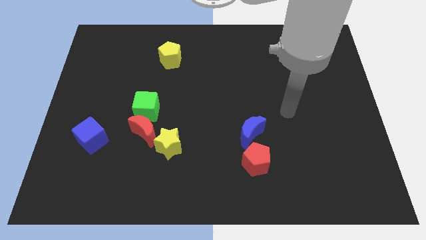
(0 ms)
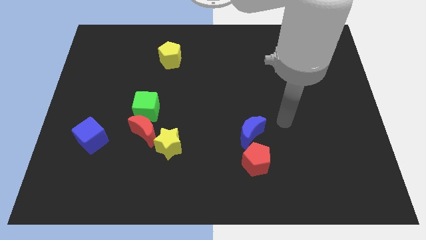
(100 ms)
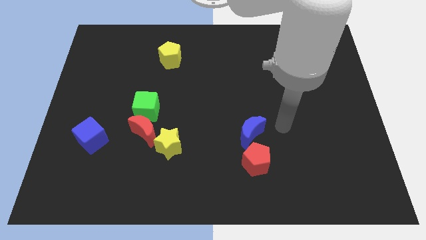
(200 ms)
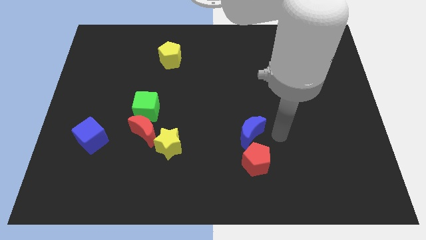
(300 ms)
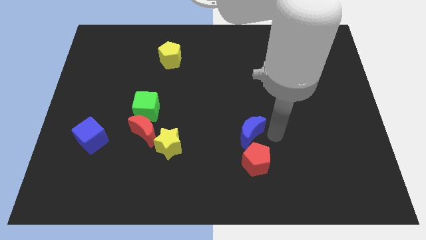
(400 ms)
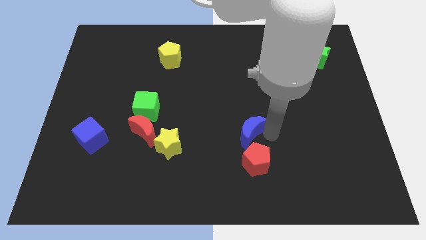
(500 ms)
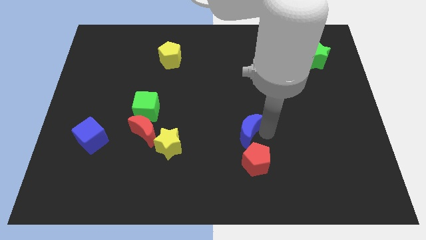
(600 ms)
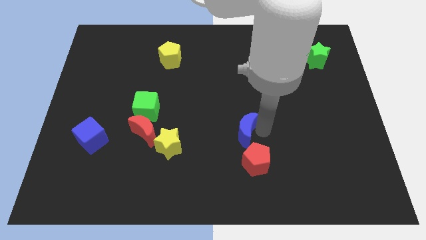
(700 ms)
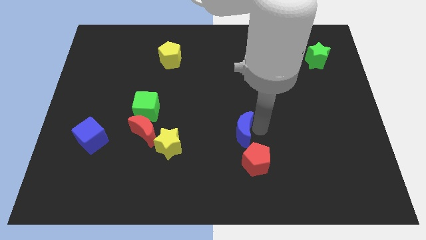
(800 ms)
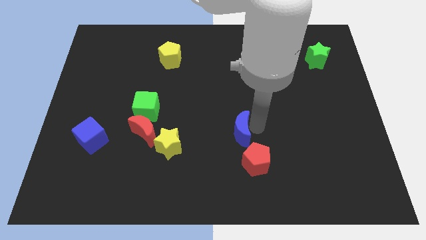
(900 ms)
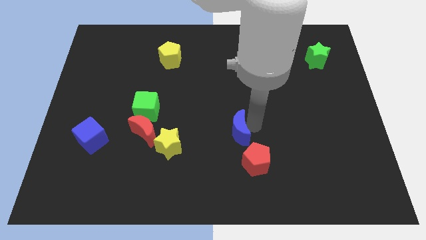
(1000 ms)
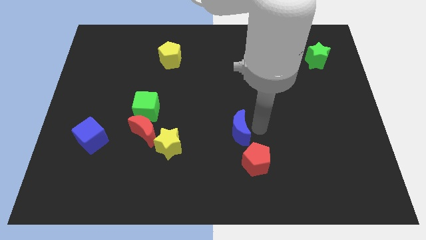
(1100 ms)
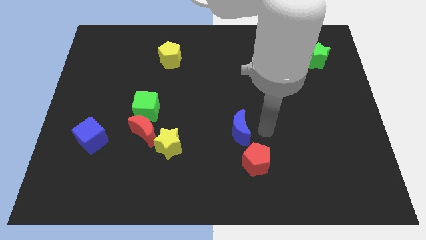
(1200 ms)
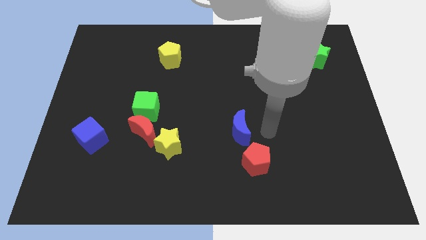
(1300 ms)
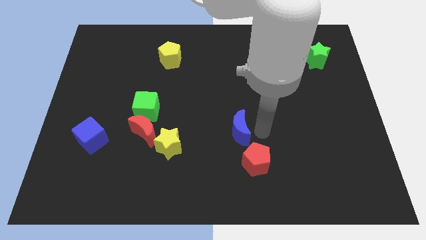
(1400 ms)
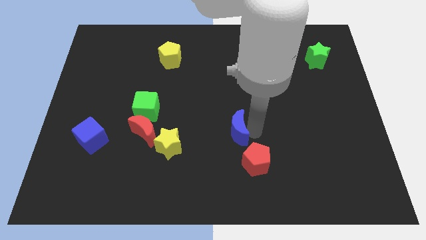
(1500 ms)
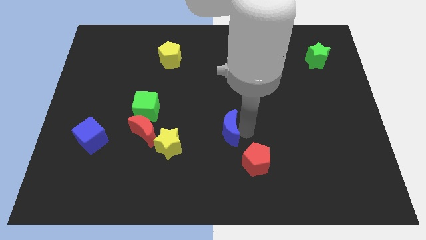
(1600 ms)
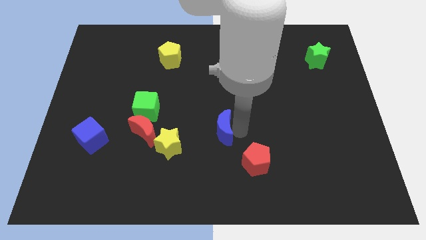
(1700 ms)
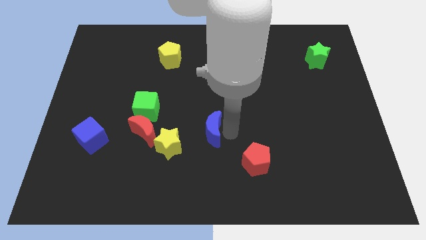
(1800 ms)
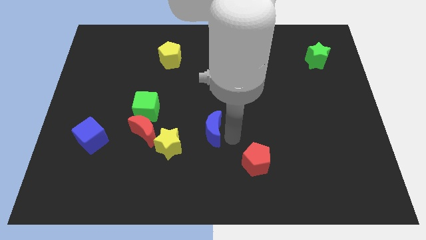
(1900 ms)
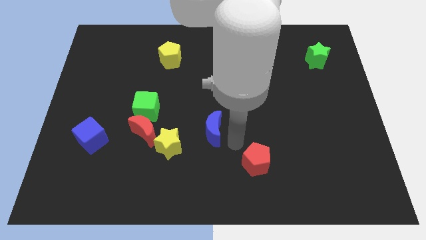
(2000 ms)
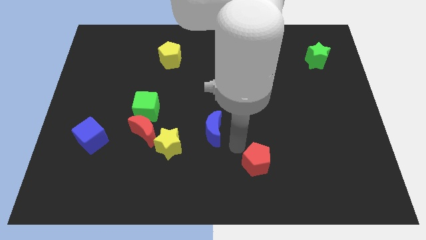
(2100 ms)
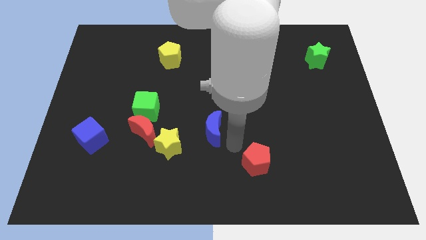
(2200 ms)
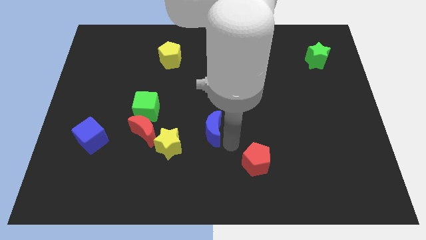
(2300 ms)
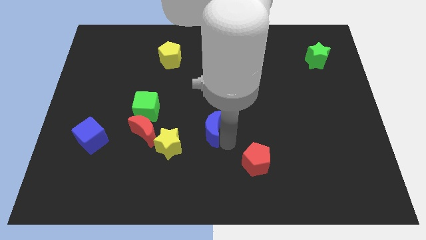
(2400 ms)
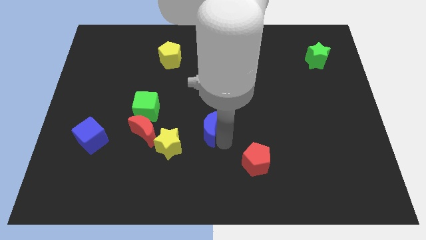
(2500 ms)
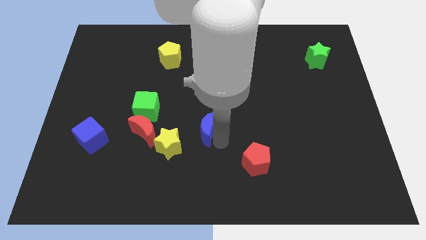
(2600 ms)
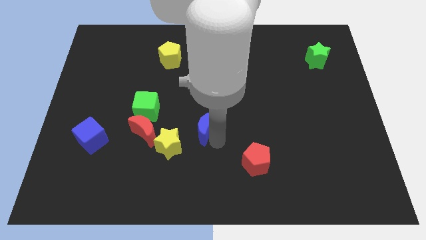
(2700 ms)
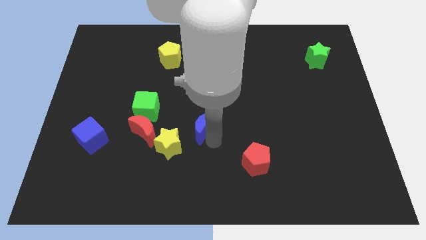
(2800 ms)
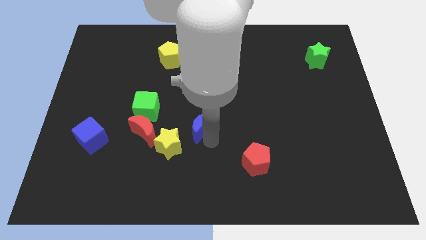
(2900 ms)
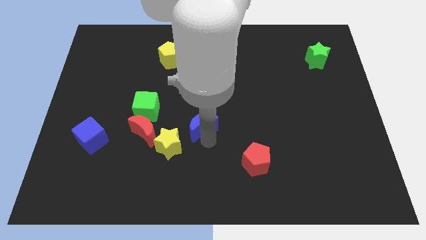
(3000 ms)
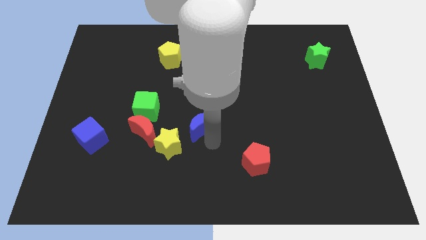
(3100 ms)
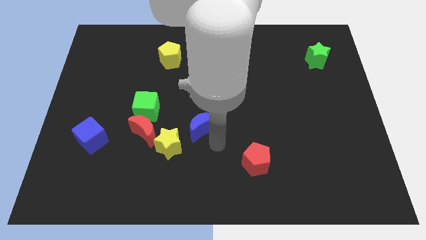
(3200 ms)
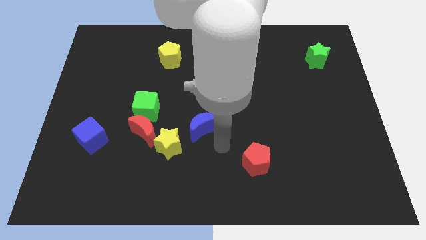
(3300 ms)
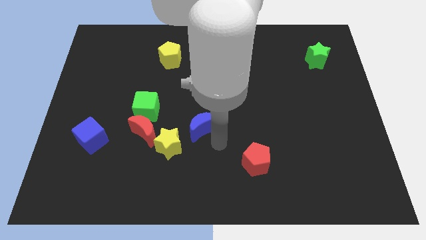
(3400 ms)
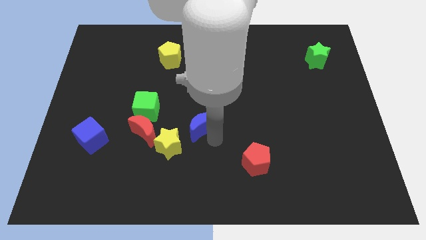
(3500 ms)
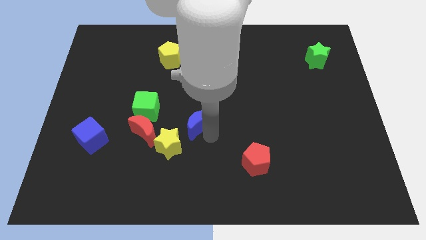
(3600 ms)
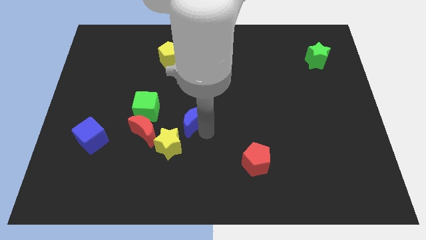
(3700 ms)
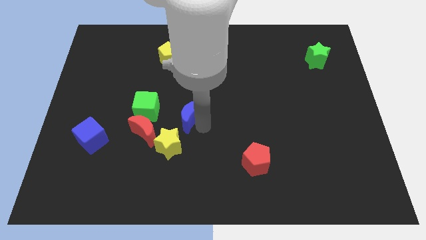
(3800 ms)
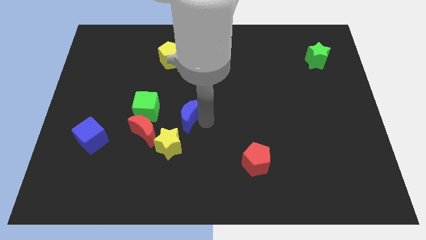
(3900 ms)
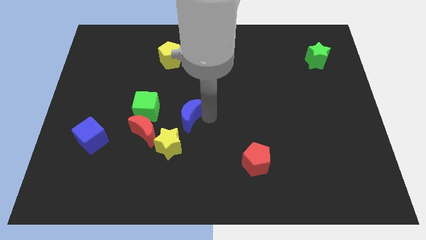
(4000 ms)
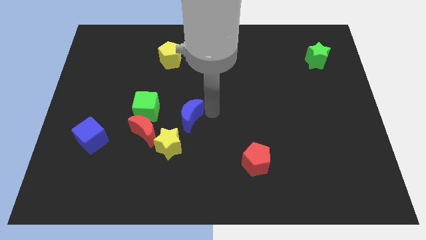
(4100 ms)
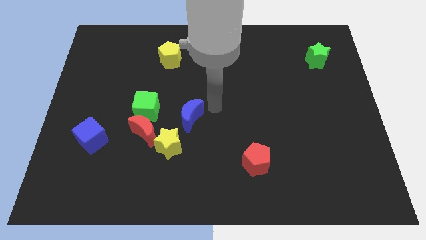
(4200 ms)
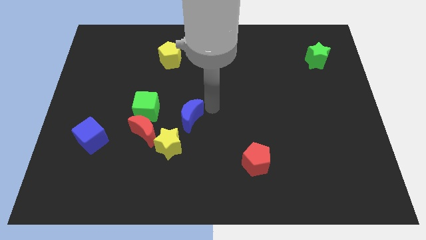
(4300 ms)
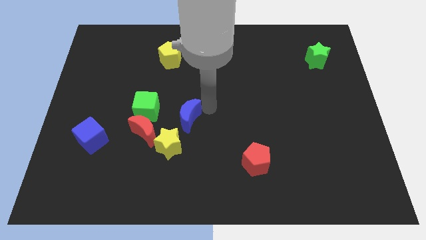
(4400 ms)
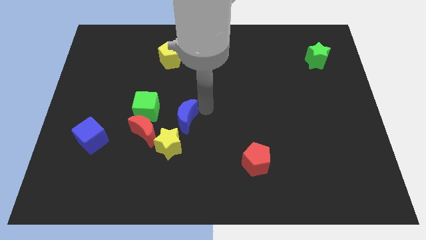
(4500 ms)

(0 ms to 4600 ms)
move the blue moon diagonally down and to the right of the green cube

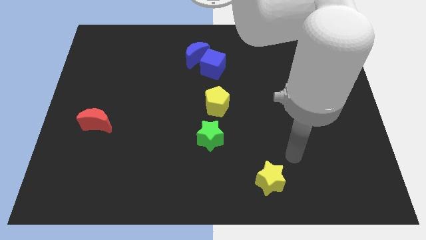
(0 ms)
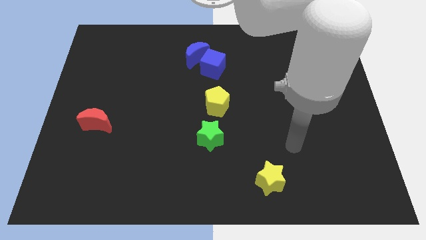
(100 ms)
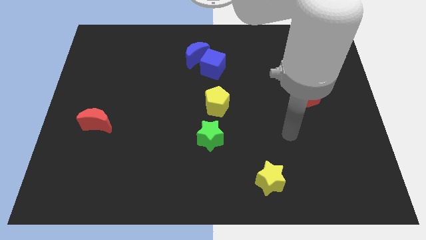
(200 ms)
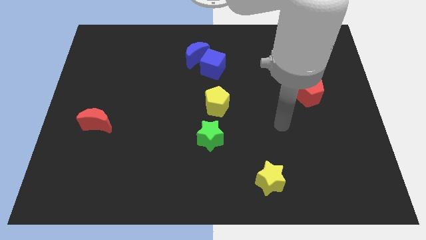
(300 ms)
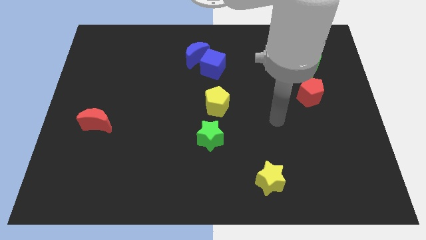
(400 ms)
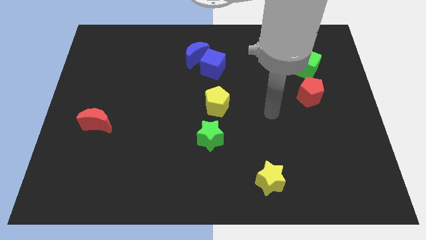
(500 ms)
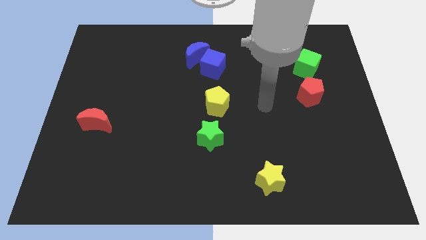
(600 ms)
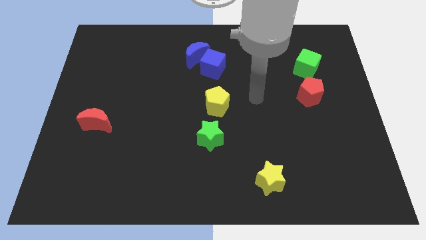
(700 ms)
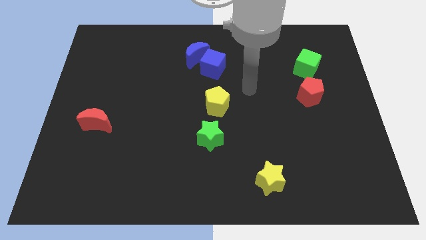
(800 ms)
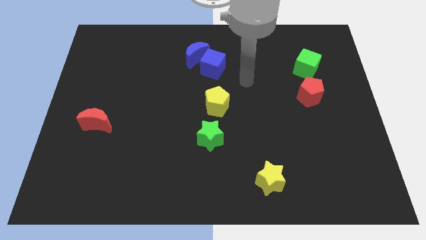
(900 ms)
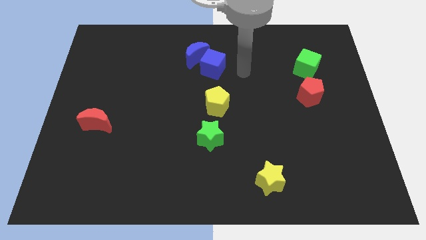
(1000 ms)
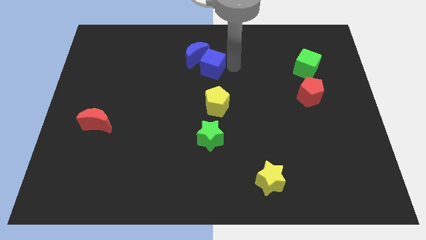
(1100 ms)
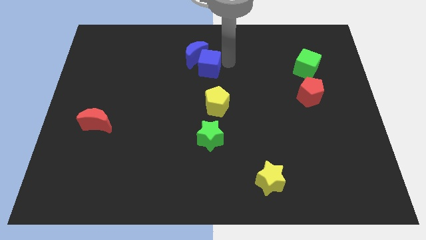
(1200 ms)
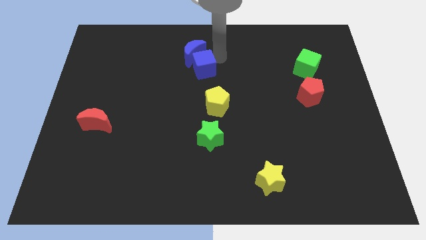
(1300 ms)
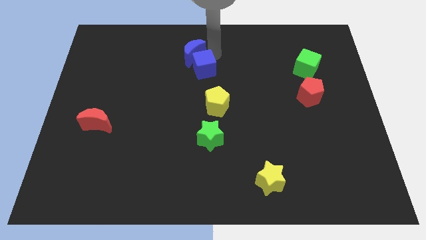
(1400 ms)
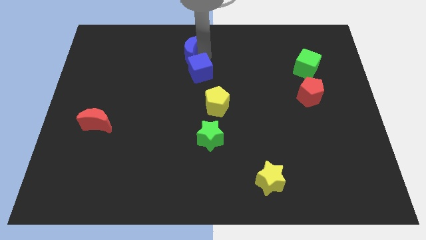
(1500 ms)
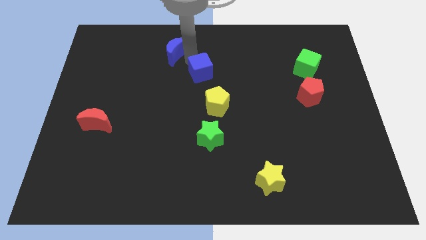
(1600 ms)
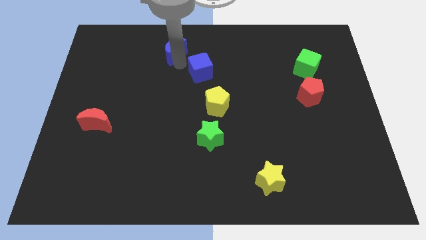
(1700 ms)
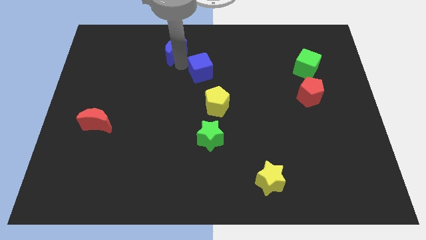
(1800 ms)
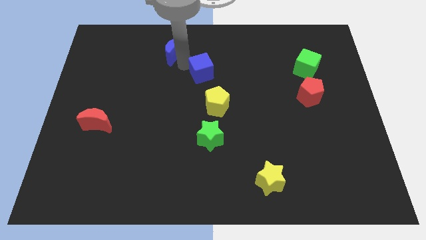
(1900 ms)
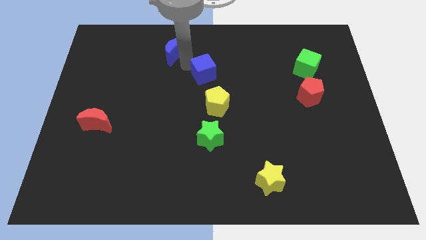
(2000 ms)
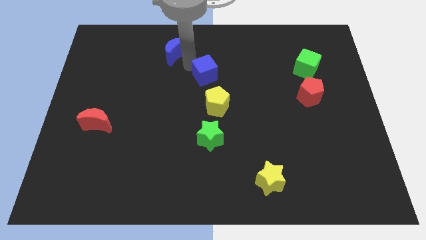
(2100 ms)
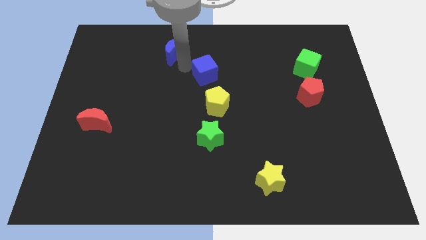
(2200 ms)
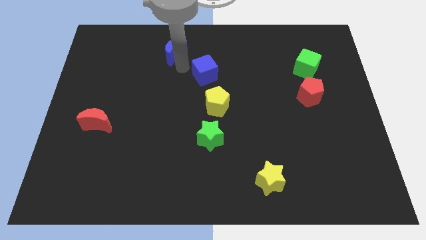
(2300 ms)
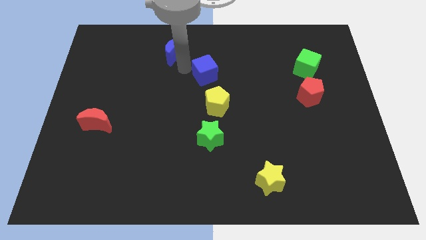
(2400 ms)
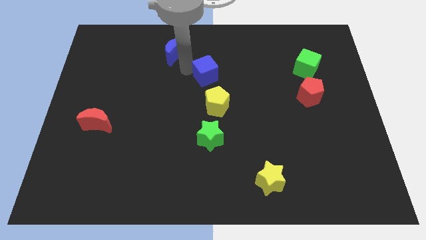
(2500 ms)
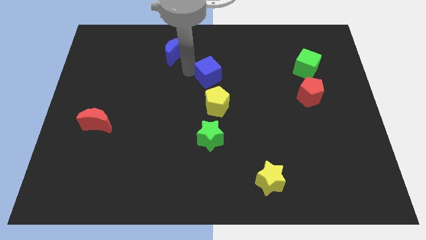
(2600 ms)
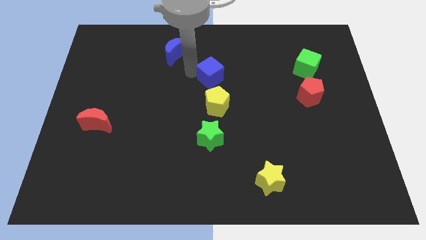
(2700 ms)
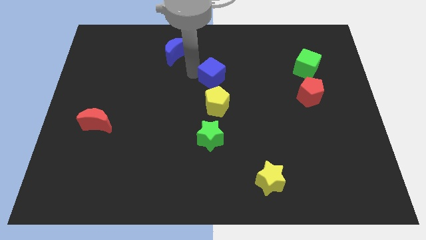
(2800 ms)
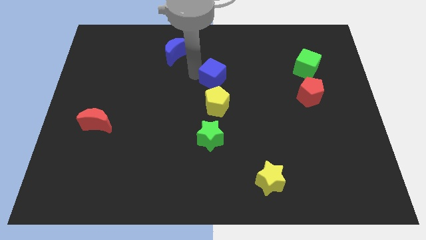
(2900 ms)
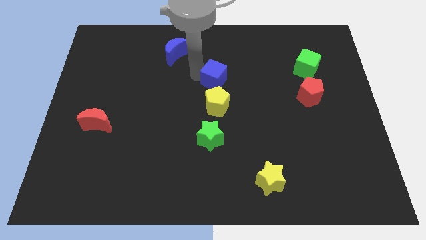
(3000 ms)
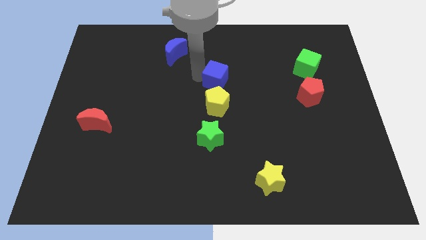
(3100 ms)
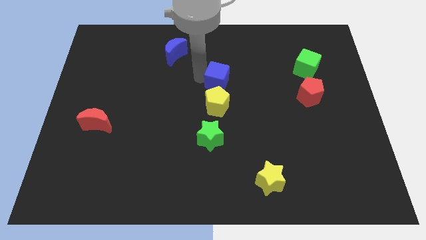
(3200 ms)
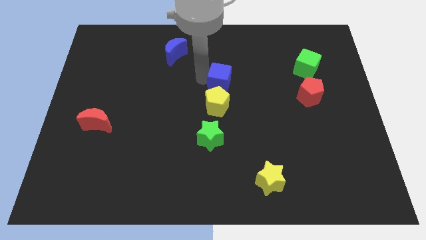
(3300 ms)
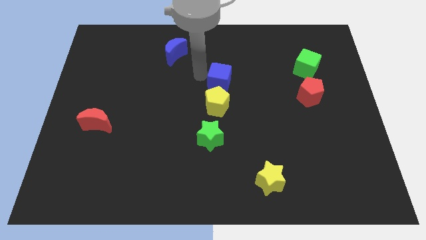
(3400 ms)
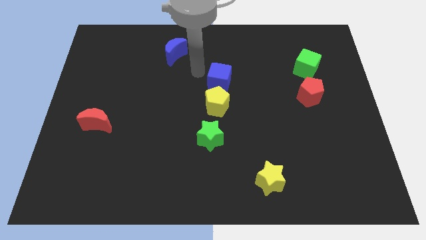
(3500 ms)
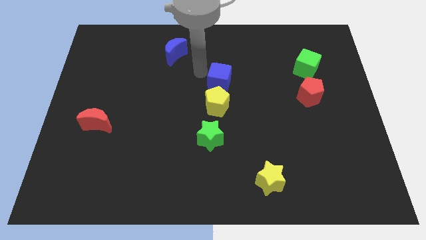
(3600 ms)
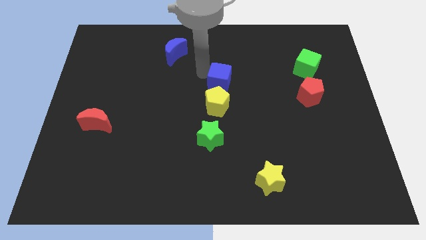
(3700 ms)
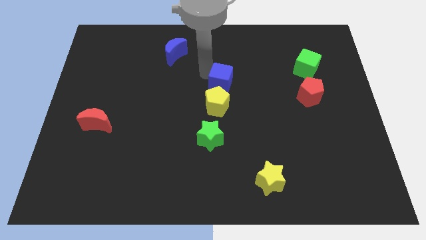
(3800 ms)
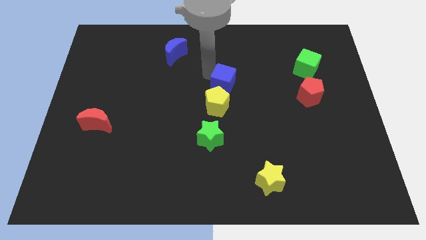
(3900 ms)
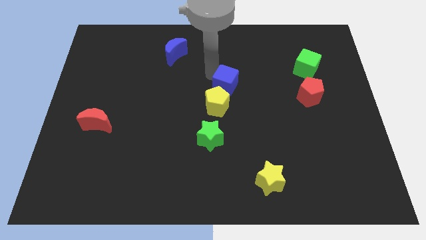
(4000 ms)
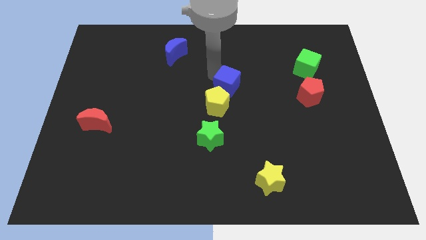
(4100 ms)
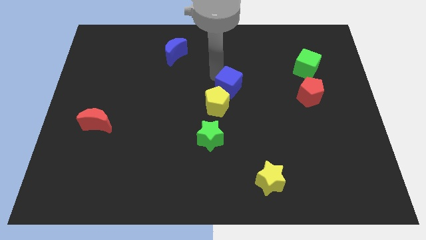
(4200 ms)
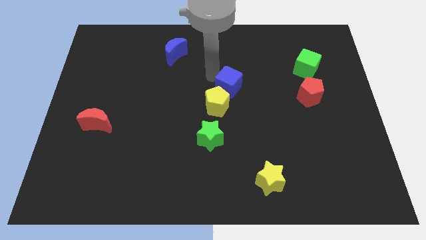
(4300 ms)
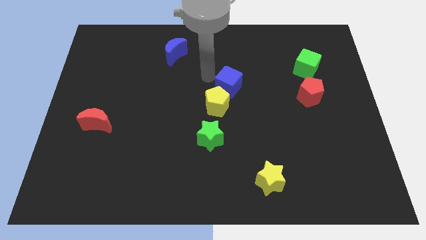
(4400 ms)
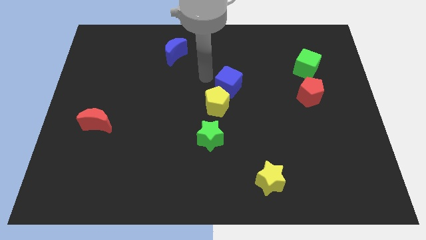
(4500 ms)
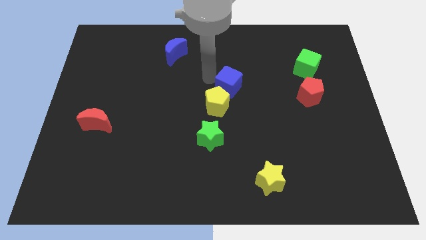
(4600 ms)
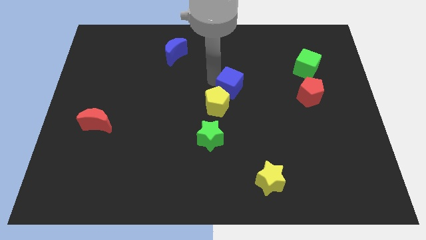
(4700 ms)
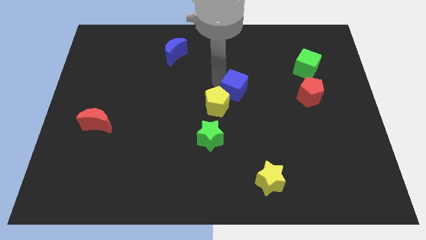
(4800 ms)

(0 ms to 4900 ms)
put the blue cube to the right of the yellow pentagon
